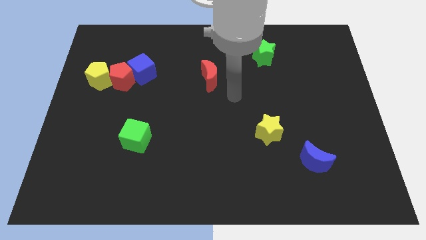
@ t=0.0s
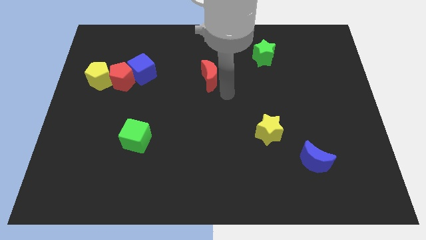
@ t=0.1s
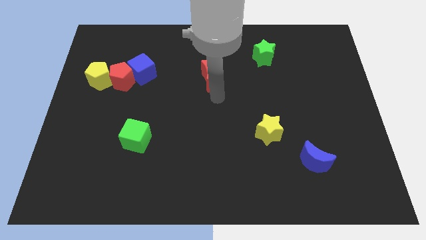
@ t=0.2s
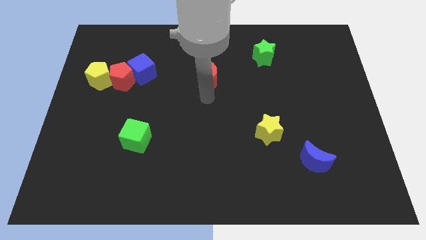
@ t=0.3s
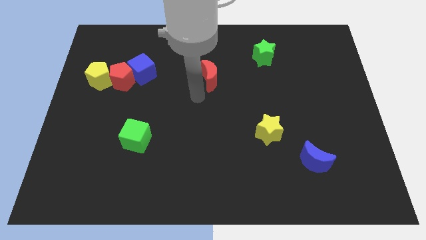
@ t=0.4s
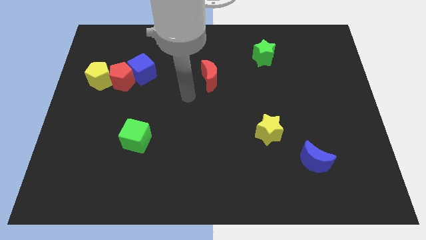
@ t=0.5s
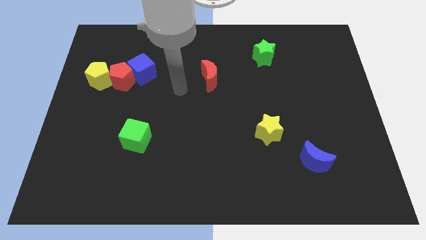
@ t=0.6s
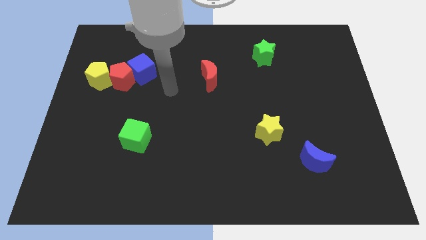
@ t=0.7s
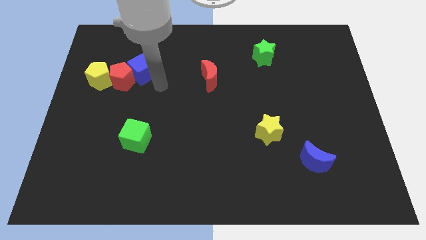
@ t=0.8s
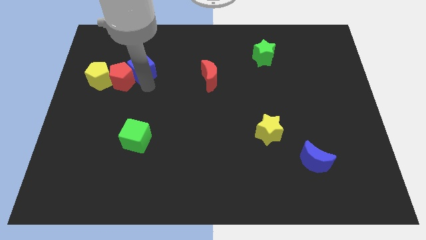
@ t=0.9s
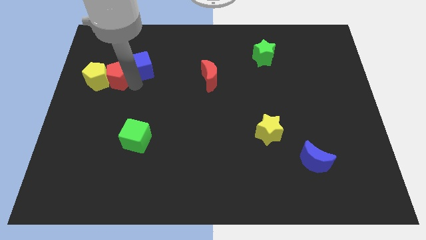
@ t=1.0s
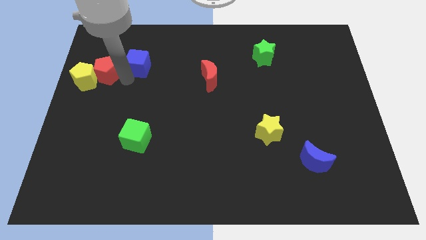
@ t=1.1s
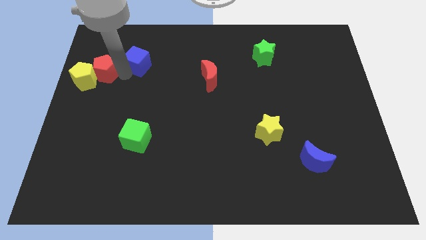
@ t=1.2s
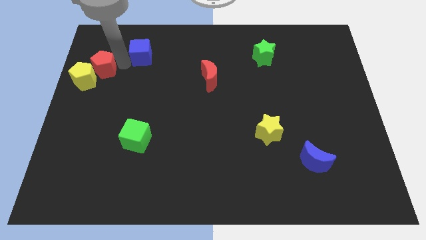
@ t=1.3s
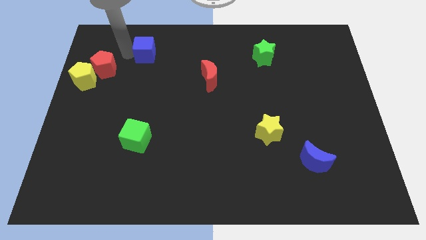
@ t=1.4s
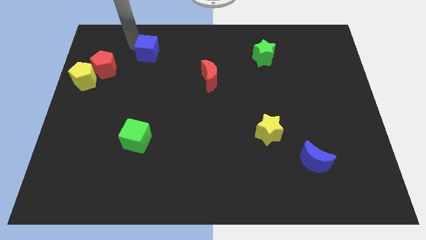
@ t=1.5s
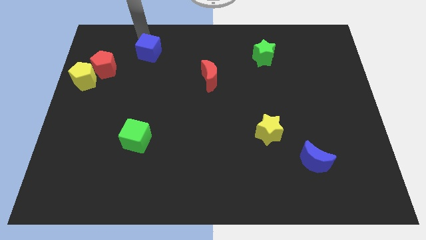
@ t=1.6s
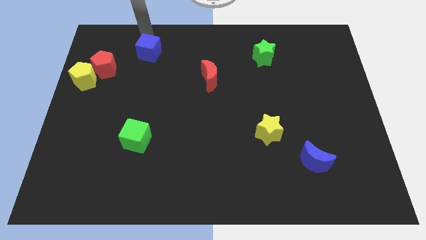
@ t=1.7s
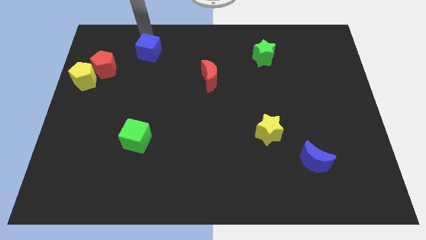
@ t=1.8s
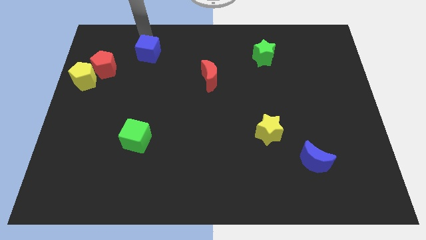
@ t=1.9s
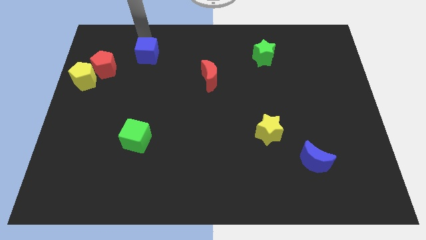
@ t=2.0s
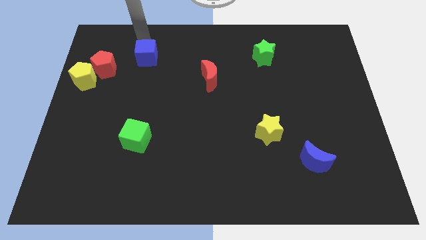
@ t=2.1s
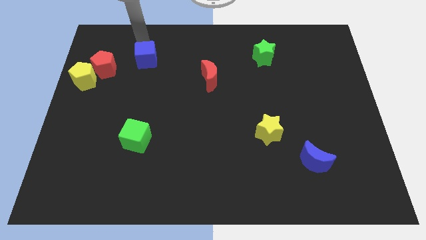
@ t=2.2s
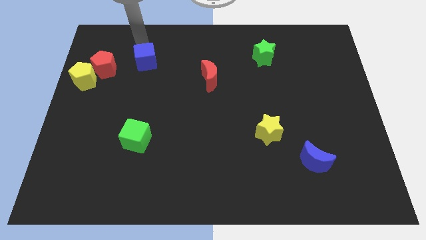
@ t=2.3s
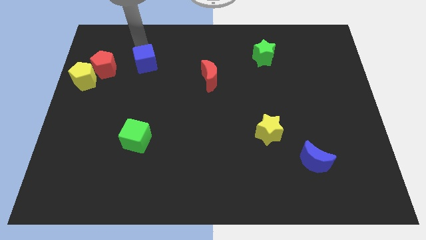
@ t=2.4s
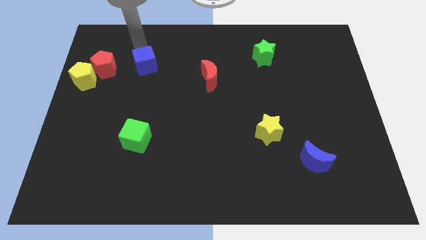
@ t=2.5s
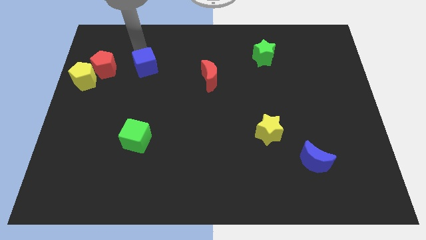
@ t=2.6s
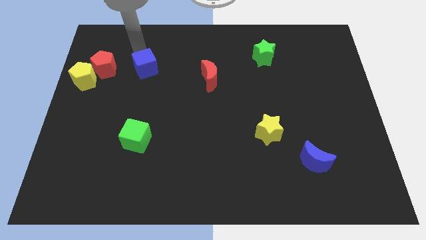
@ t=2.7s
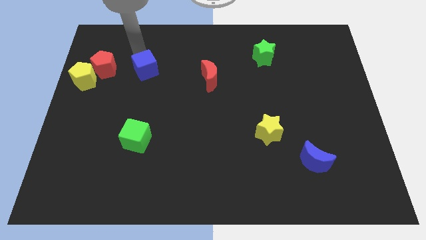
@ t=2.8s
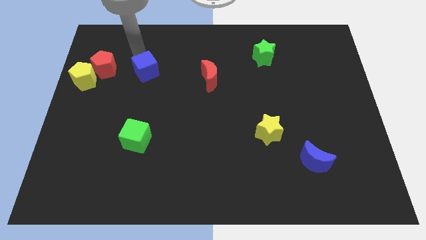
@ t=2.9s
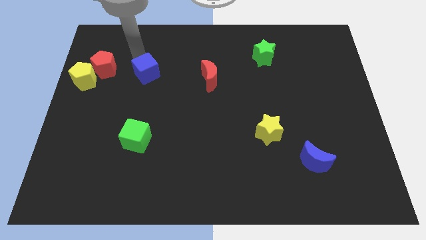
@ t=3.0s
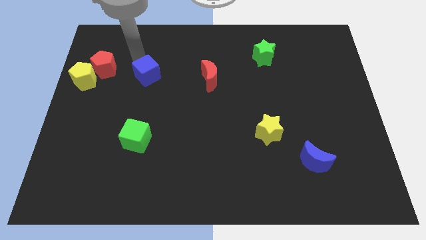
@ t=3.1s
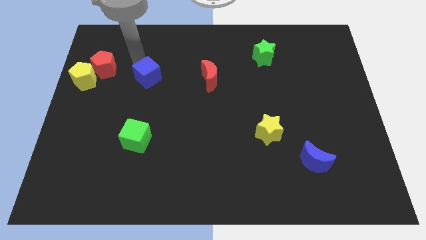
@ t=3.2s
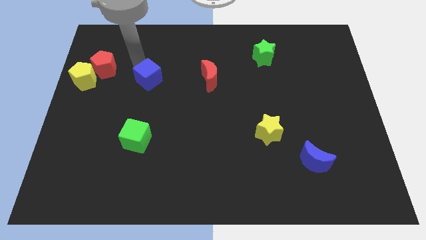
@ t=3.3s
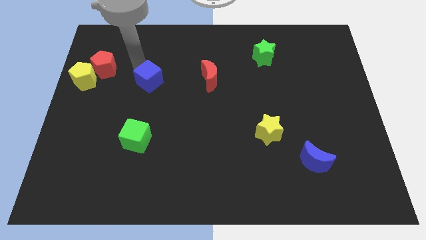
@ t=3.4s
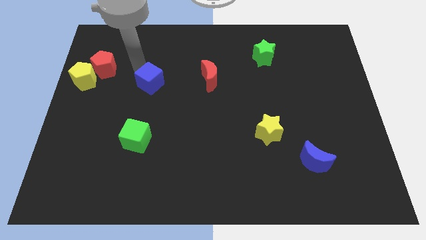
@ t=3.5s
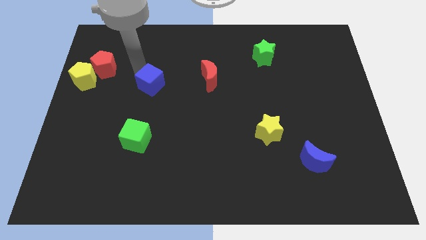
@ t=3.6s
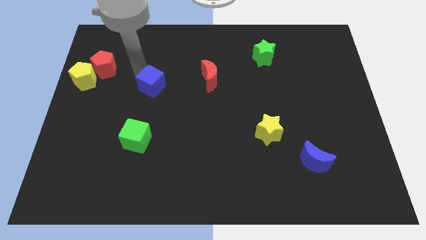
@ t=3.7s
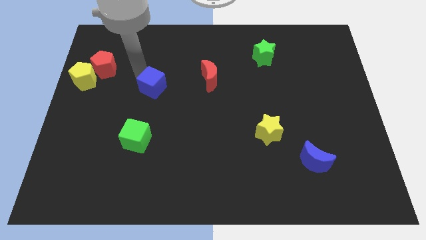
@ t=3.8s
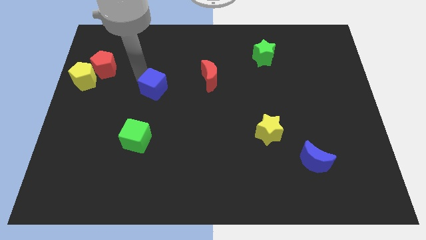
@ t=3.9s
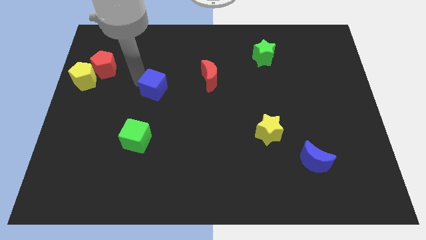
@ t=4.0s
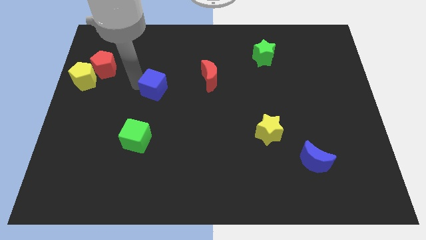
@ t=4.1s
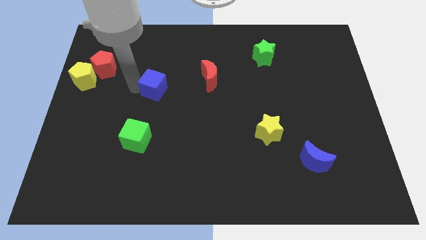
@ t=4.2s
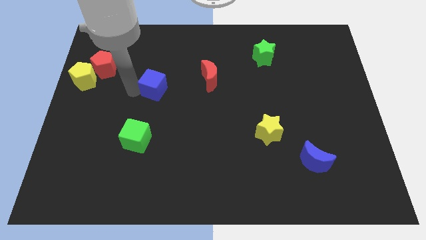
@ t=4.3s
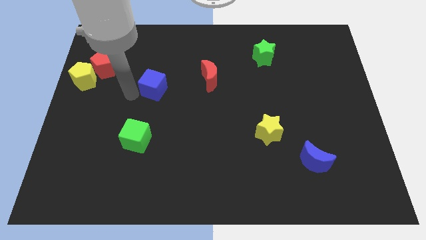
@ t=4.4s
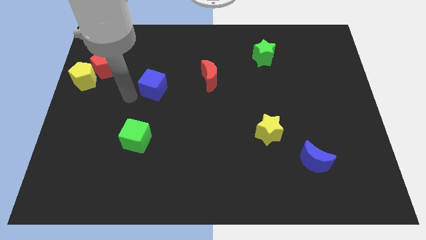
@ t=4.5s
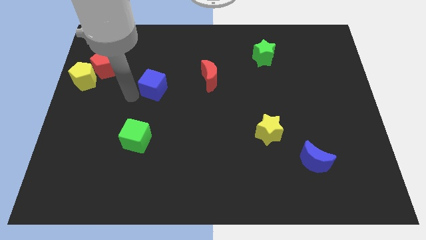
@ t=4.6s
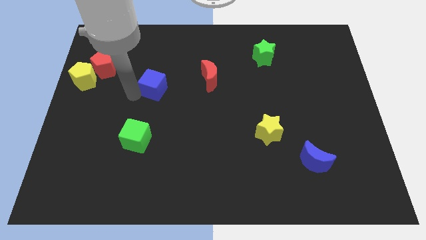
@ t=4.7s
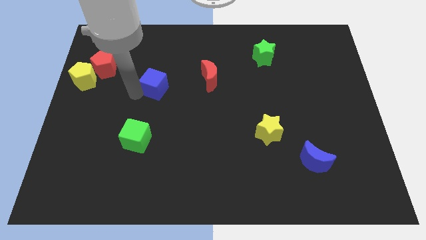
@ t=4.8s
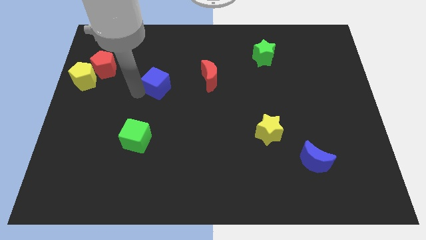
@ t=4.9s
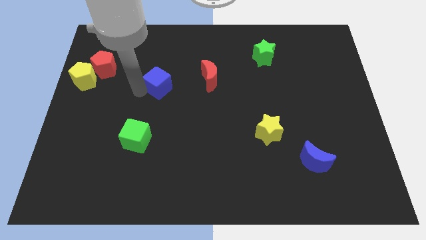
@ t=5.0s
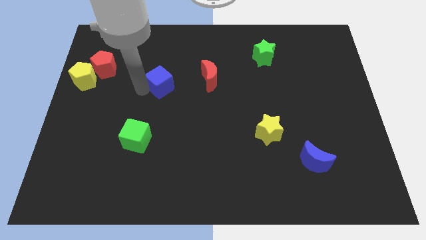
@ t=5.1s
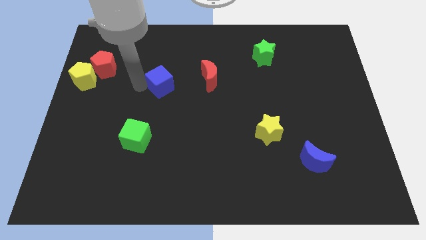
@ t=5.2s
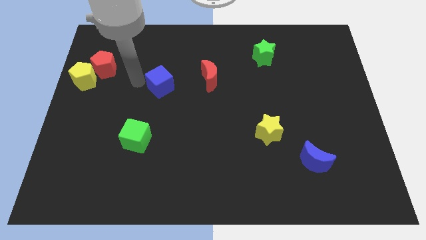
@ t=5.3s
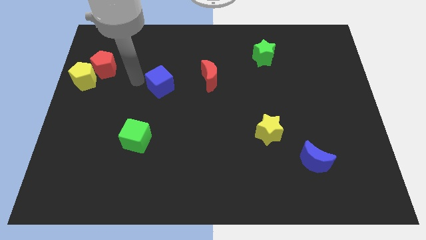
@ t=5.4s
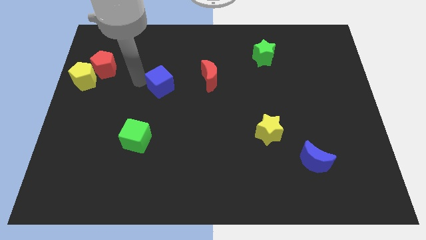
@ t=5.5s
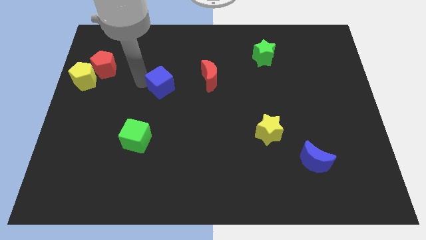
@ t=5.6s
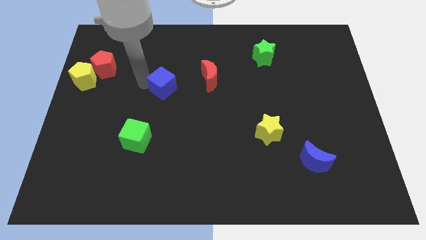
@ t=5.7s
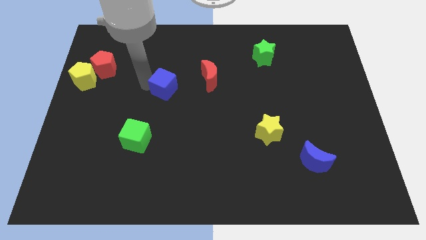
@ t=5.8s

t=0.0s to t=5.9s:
push the blue cube to the middle of the board

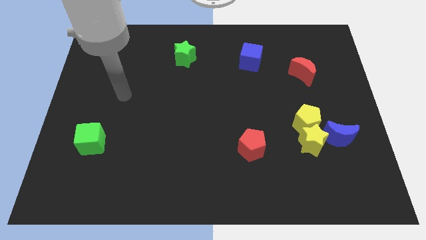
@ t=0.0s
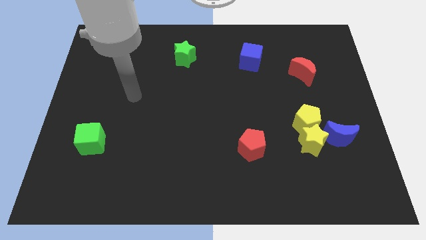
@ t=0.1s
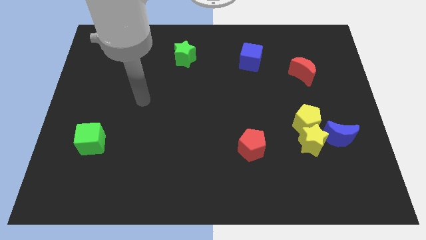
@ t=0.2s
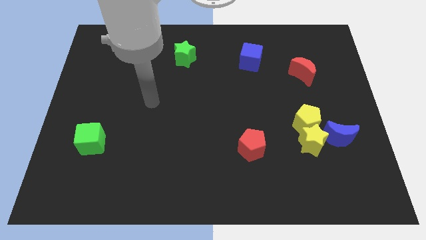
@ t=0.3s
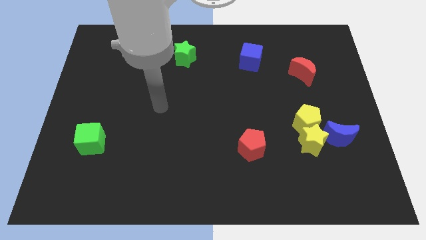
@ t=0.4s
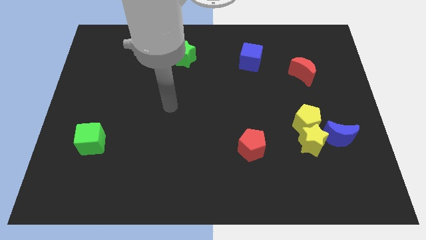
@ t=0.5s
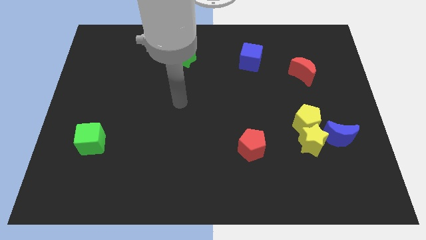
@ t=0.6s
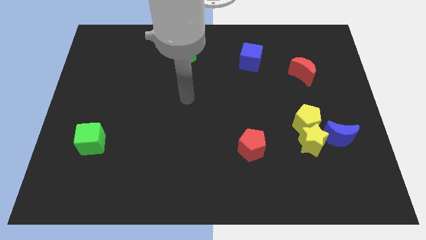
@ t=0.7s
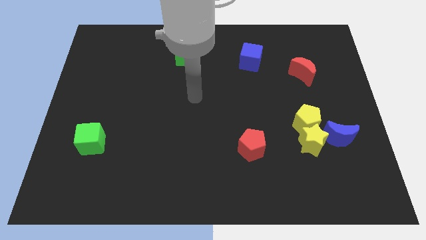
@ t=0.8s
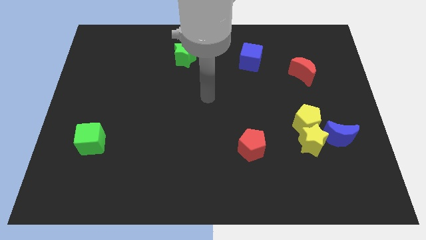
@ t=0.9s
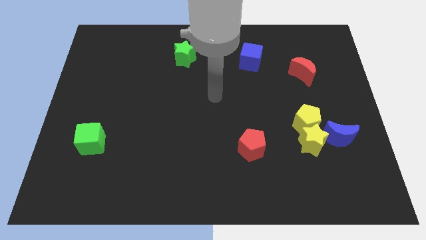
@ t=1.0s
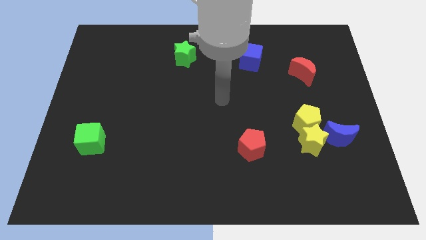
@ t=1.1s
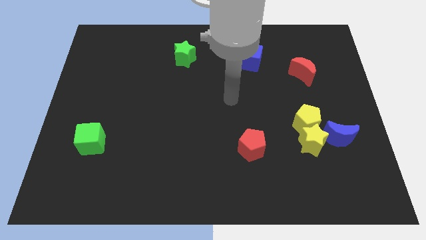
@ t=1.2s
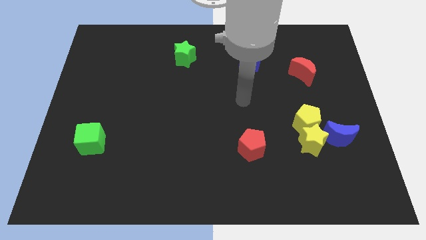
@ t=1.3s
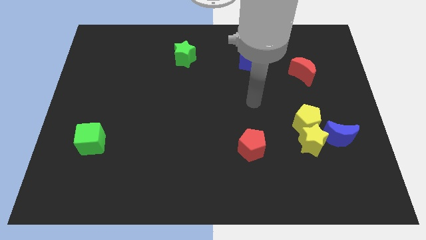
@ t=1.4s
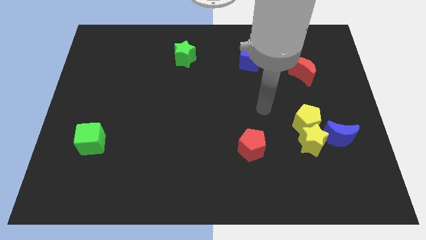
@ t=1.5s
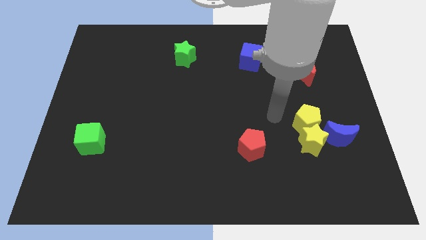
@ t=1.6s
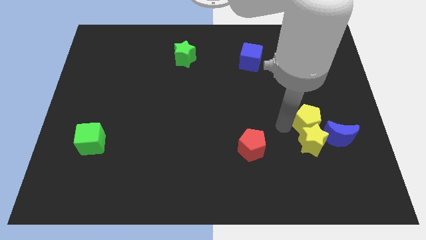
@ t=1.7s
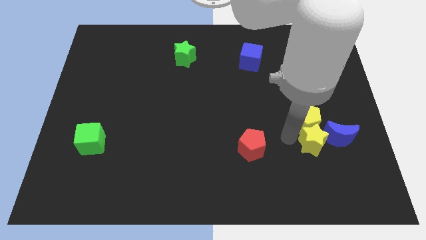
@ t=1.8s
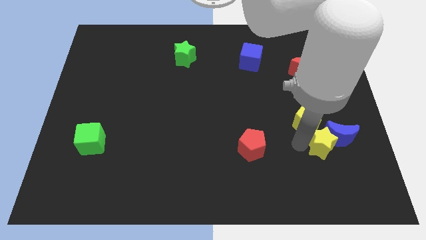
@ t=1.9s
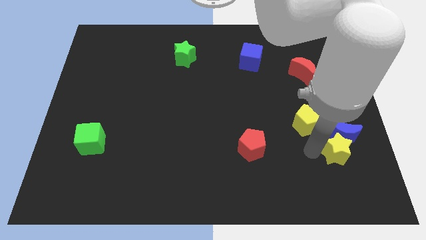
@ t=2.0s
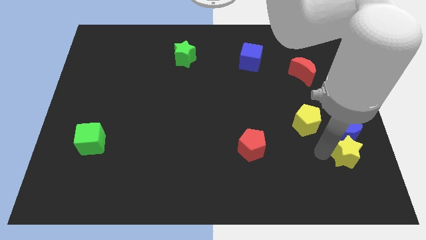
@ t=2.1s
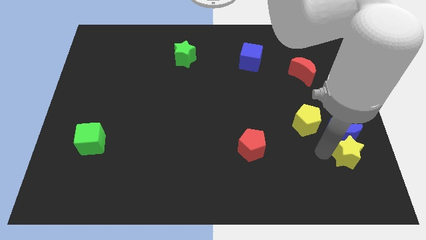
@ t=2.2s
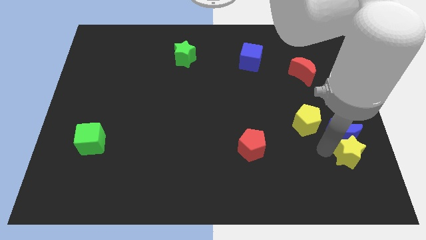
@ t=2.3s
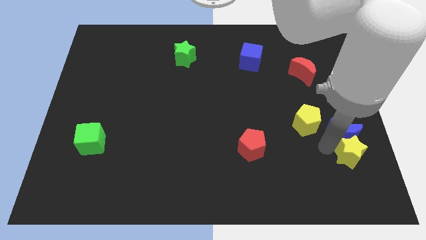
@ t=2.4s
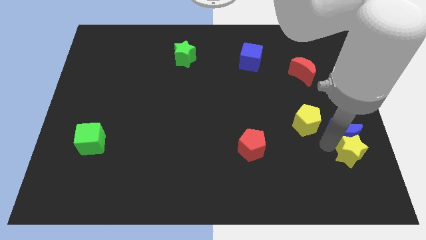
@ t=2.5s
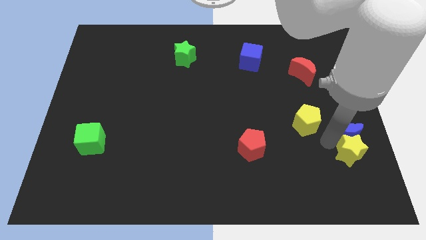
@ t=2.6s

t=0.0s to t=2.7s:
put the blue moon to the right side
